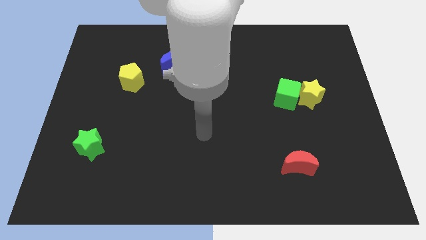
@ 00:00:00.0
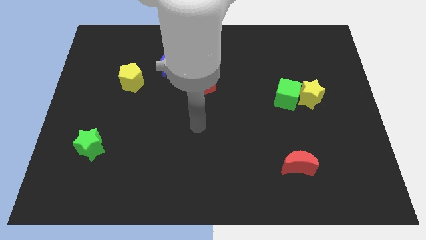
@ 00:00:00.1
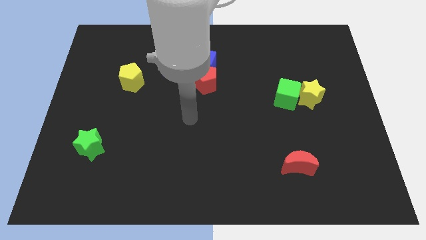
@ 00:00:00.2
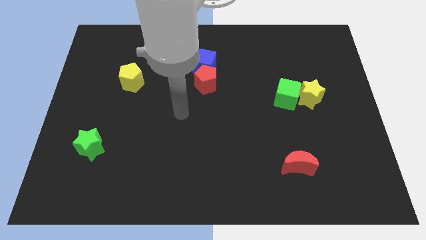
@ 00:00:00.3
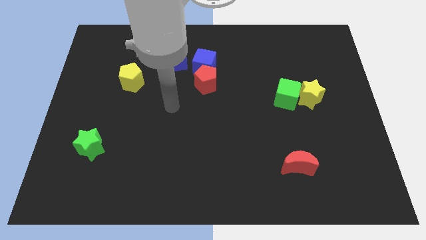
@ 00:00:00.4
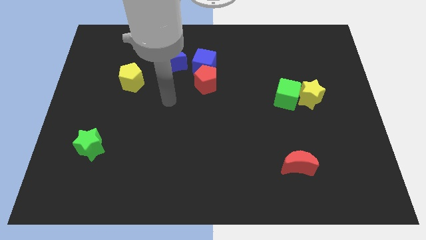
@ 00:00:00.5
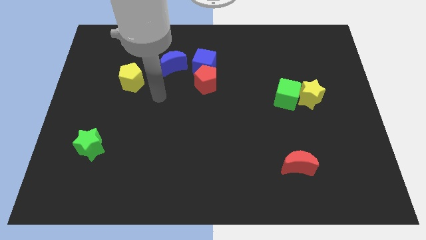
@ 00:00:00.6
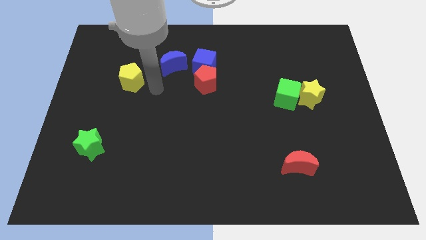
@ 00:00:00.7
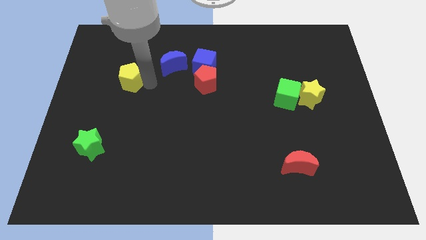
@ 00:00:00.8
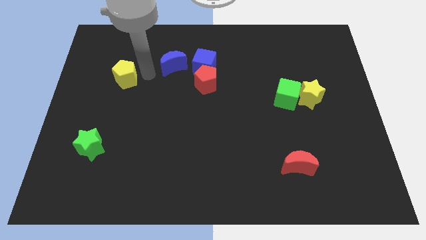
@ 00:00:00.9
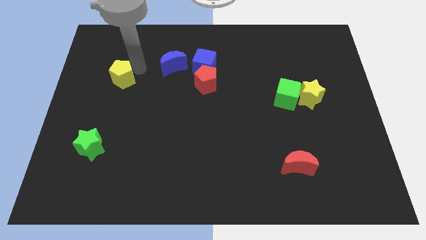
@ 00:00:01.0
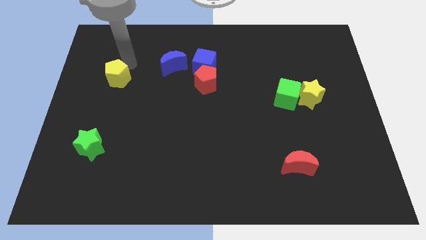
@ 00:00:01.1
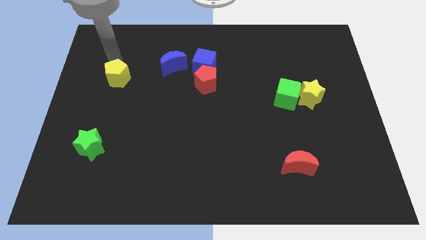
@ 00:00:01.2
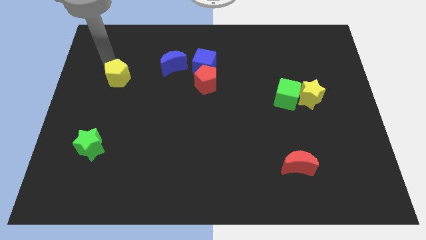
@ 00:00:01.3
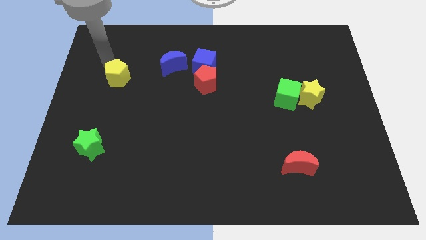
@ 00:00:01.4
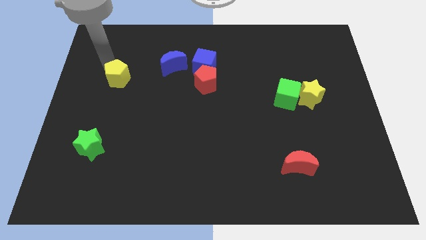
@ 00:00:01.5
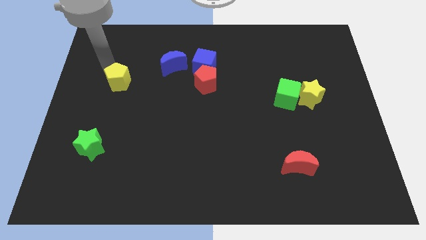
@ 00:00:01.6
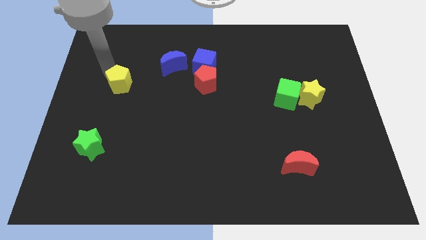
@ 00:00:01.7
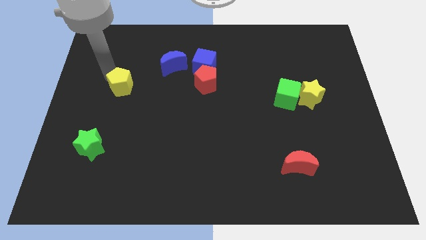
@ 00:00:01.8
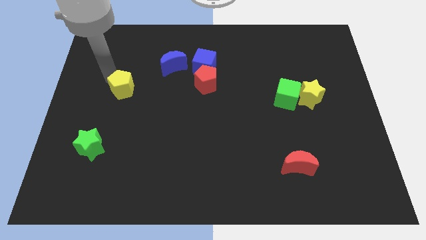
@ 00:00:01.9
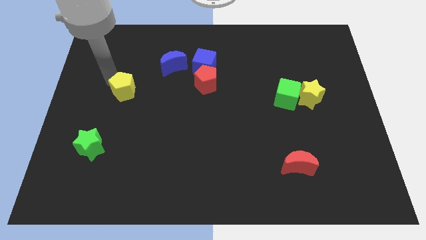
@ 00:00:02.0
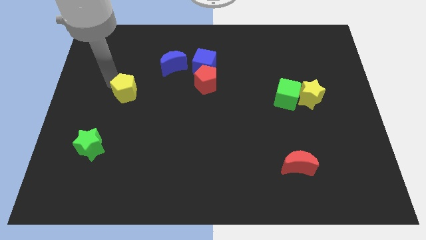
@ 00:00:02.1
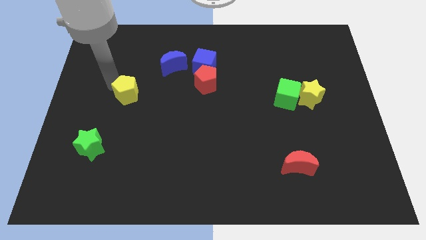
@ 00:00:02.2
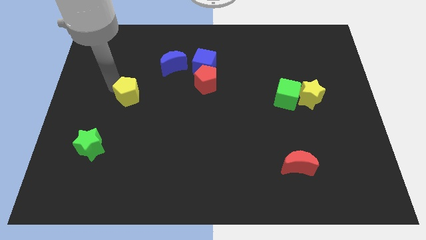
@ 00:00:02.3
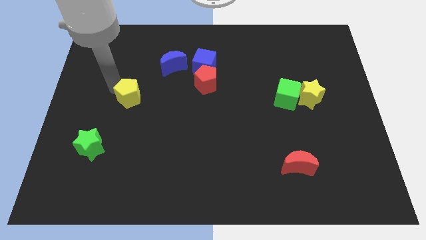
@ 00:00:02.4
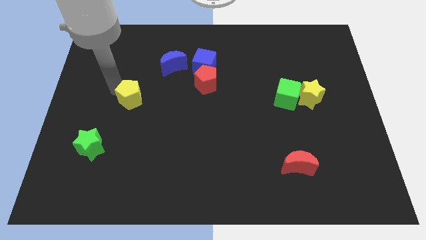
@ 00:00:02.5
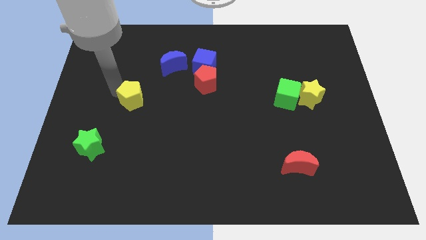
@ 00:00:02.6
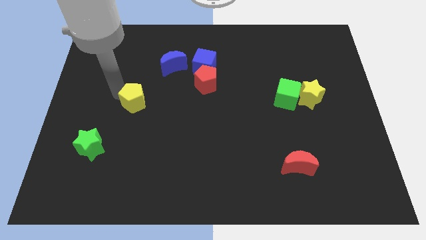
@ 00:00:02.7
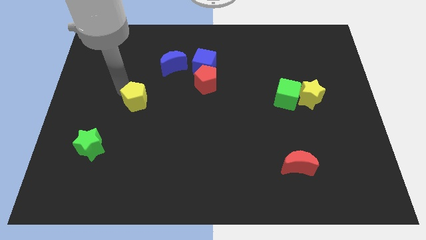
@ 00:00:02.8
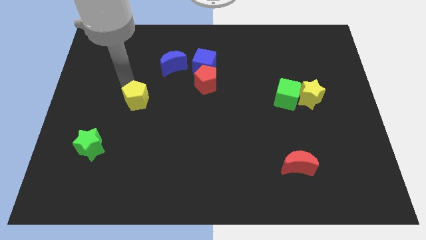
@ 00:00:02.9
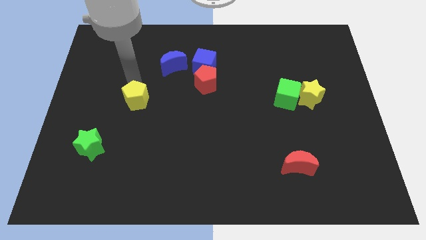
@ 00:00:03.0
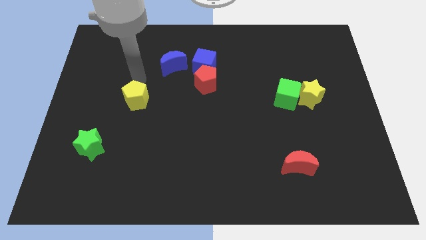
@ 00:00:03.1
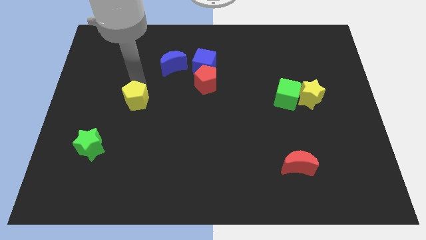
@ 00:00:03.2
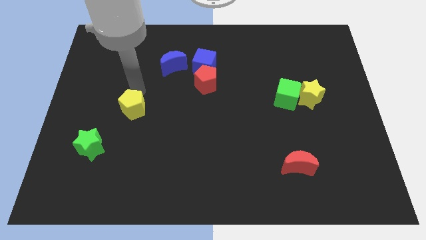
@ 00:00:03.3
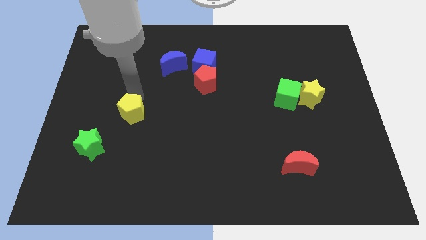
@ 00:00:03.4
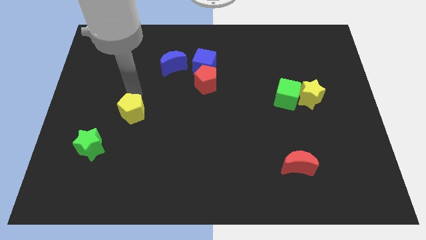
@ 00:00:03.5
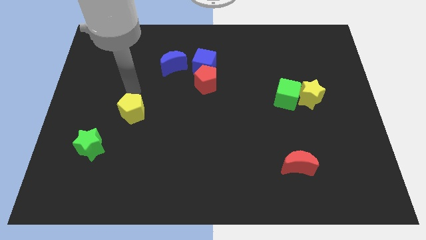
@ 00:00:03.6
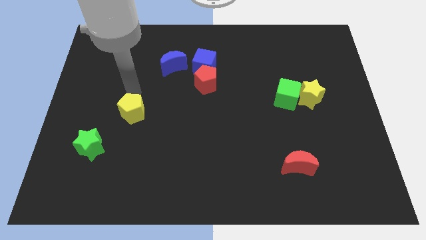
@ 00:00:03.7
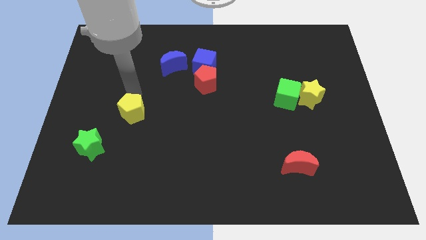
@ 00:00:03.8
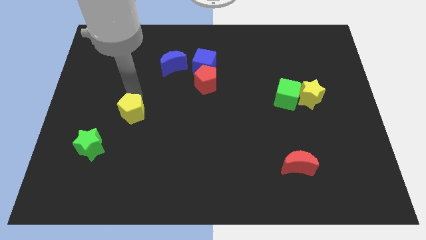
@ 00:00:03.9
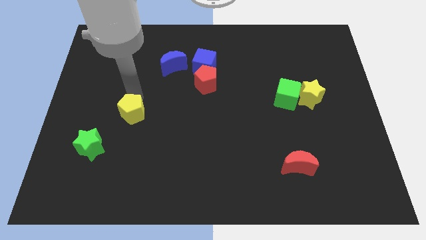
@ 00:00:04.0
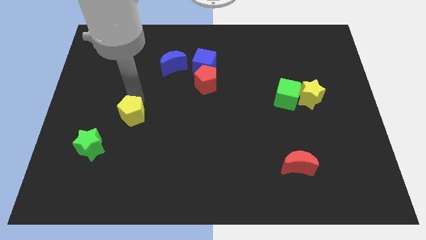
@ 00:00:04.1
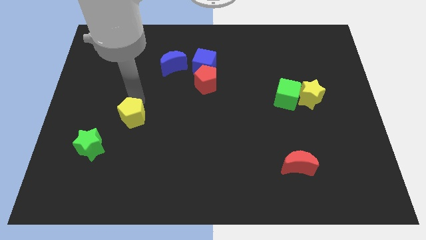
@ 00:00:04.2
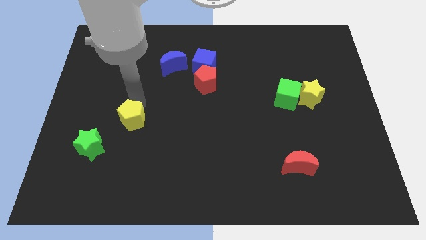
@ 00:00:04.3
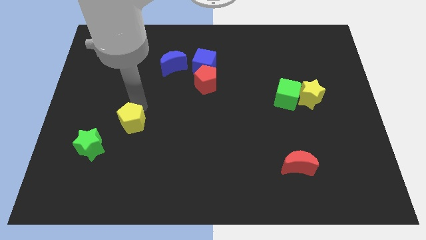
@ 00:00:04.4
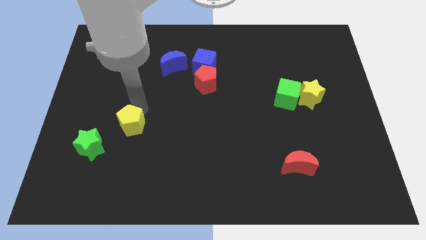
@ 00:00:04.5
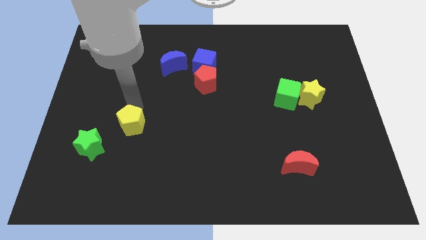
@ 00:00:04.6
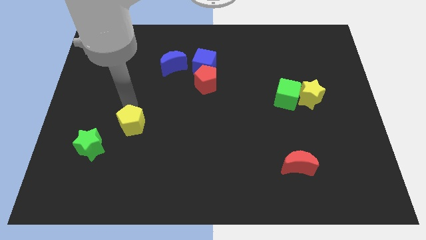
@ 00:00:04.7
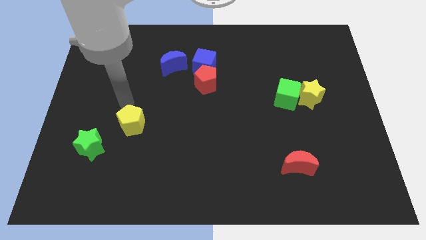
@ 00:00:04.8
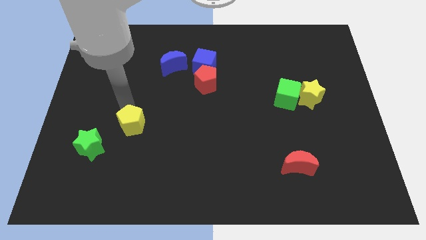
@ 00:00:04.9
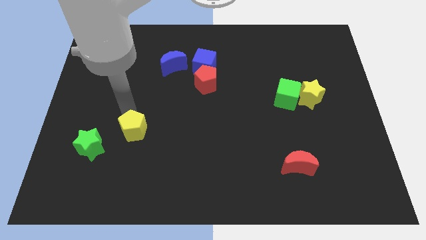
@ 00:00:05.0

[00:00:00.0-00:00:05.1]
move the yellow pentagon to the right side of the green star

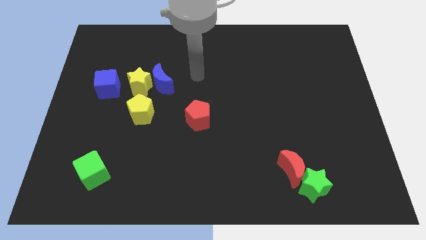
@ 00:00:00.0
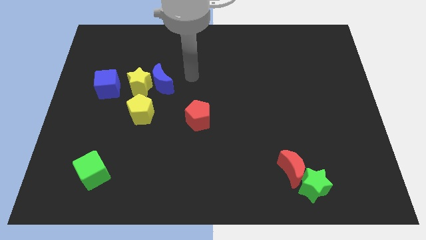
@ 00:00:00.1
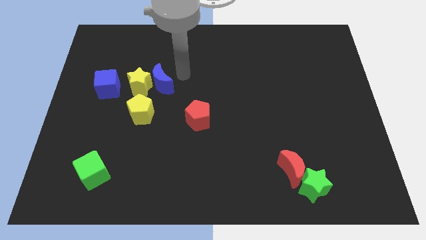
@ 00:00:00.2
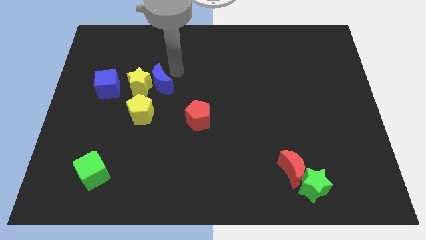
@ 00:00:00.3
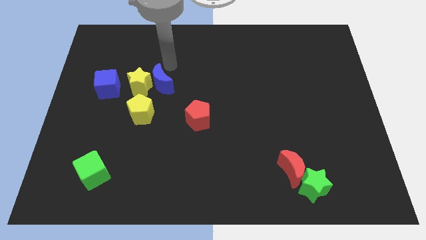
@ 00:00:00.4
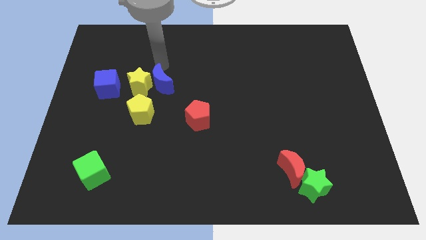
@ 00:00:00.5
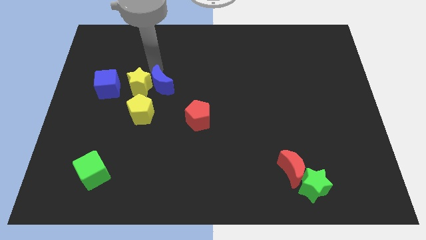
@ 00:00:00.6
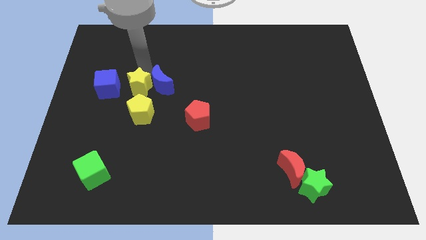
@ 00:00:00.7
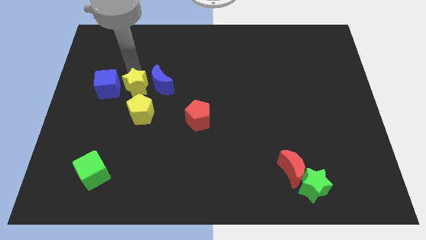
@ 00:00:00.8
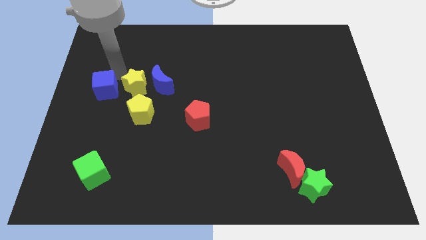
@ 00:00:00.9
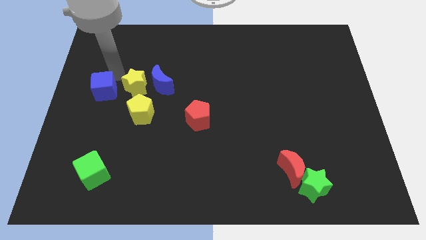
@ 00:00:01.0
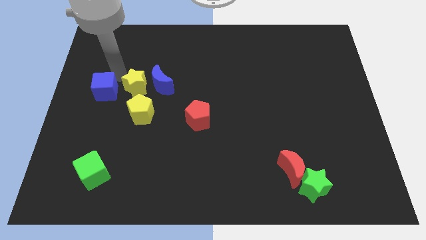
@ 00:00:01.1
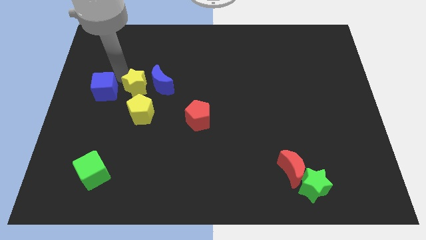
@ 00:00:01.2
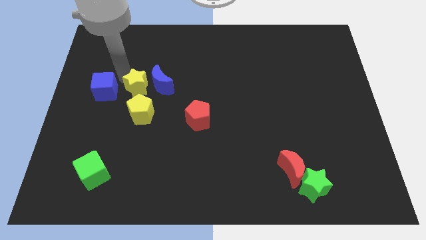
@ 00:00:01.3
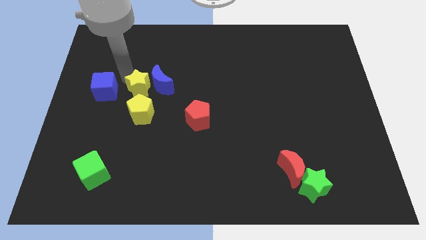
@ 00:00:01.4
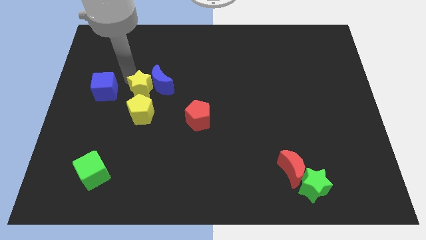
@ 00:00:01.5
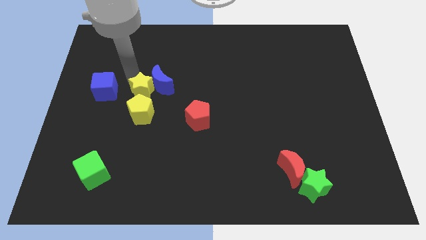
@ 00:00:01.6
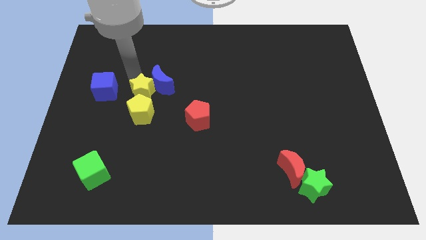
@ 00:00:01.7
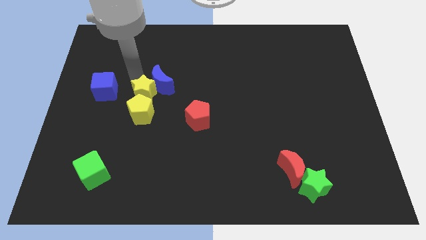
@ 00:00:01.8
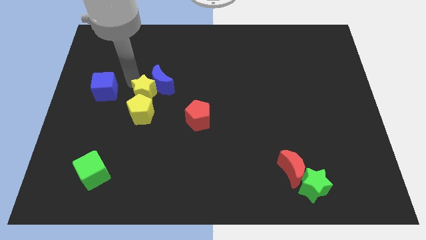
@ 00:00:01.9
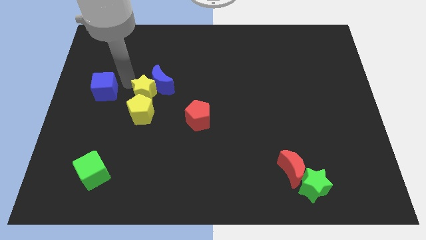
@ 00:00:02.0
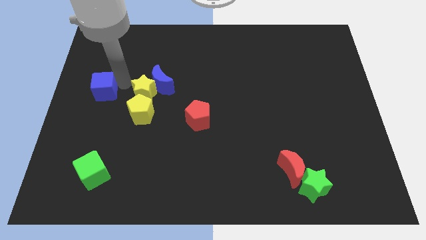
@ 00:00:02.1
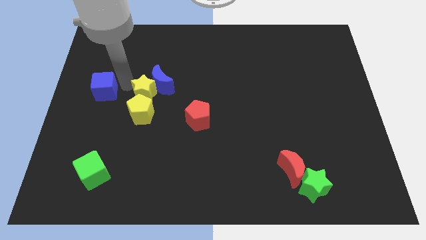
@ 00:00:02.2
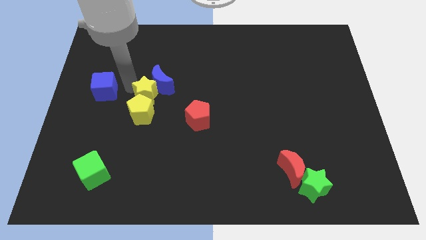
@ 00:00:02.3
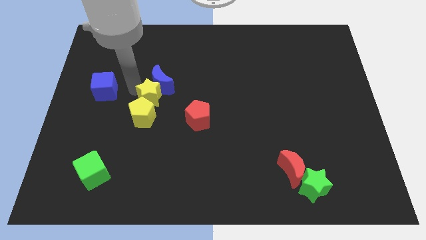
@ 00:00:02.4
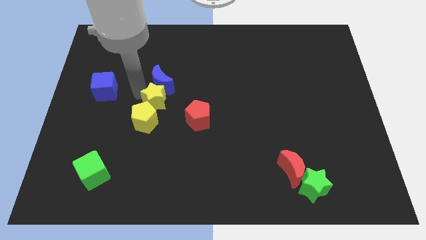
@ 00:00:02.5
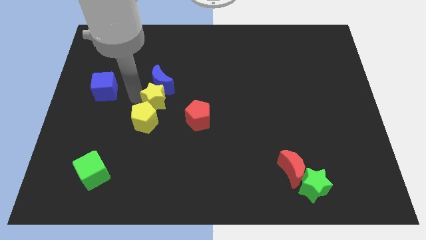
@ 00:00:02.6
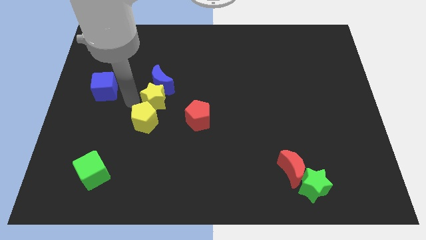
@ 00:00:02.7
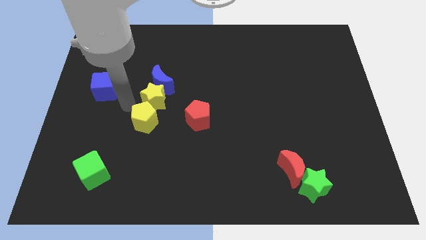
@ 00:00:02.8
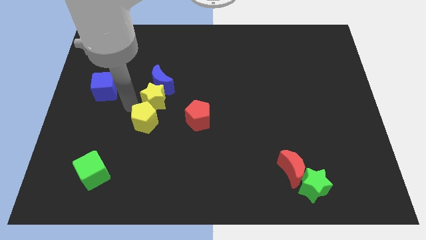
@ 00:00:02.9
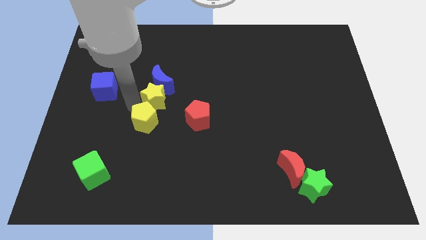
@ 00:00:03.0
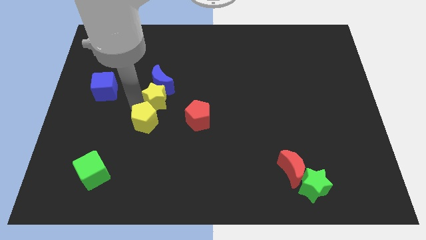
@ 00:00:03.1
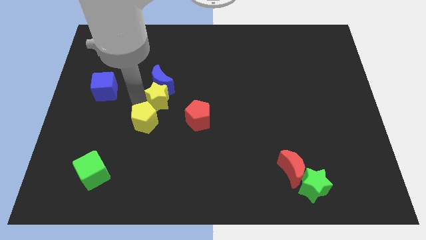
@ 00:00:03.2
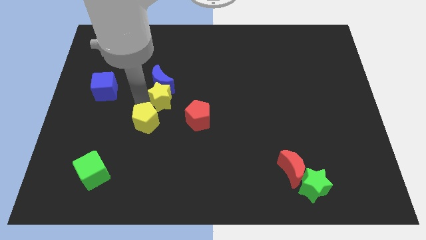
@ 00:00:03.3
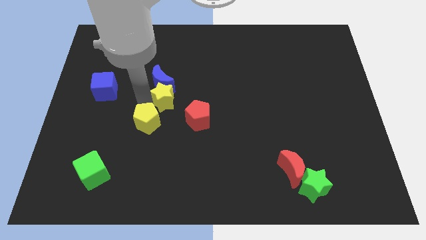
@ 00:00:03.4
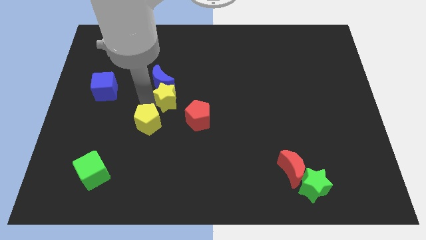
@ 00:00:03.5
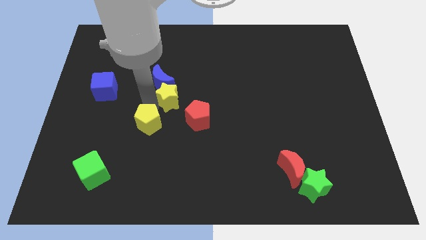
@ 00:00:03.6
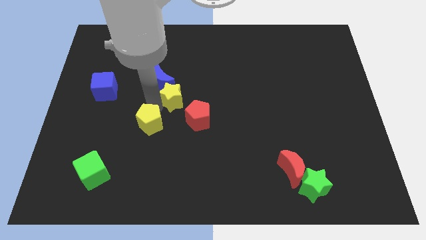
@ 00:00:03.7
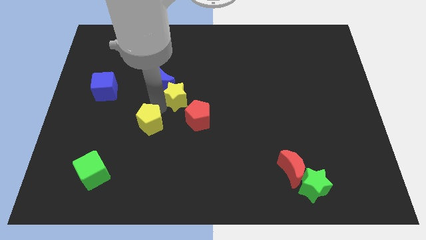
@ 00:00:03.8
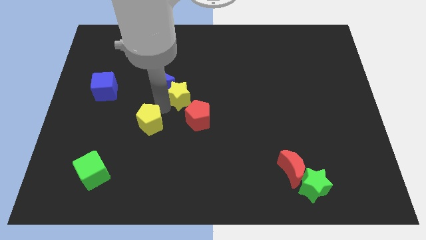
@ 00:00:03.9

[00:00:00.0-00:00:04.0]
put the yellow star to the right side of the blue moon
